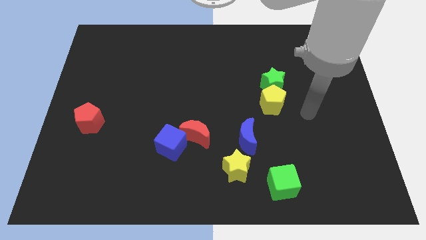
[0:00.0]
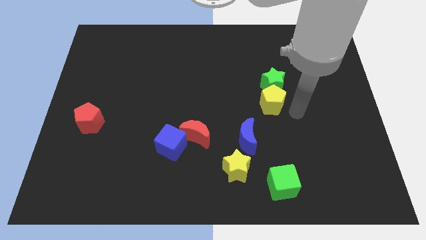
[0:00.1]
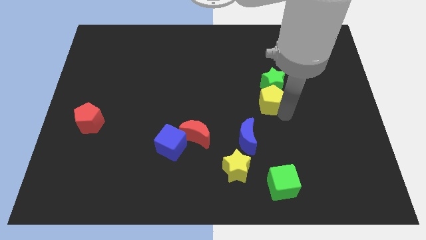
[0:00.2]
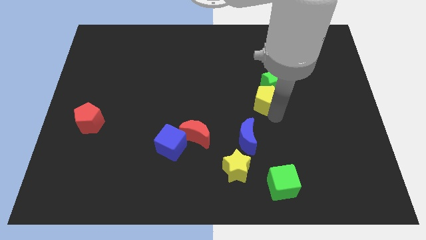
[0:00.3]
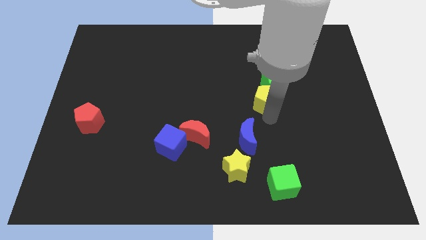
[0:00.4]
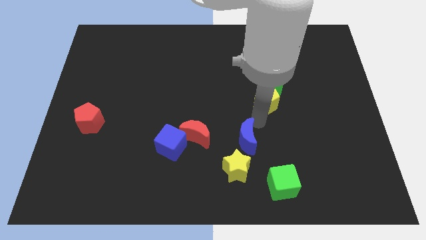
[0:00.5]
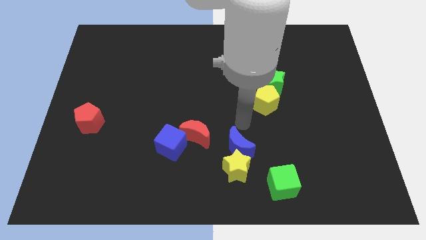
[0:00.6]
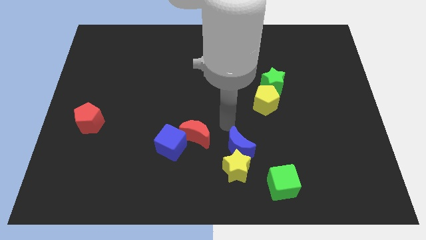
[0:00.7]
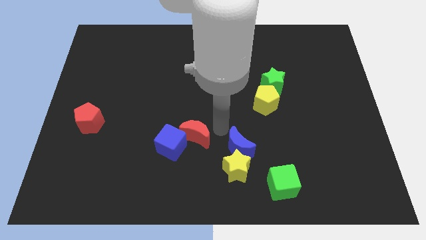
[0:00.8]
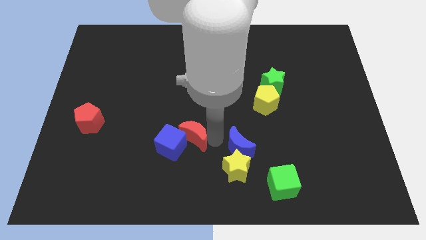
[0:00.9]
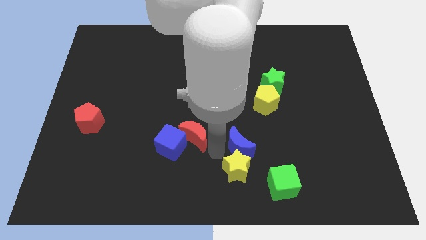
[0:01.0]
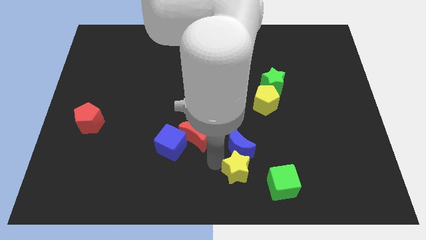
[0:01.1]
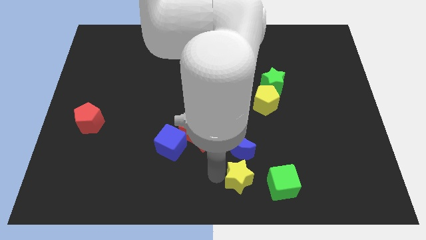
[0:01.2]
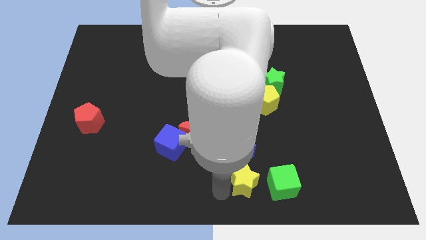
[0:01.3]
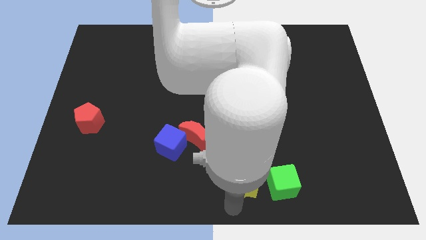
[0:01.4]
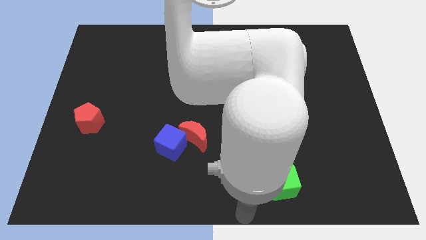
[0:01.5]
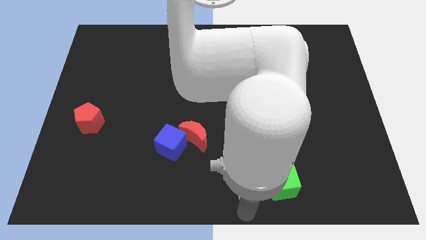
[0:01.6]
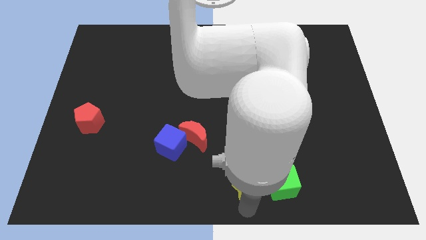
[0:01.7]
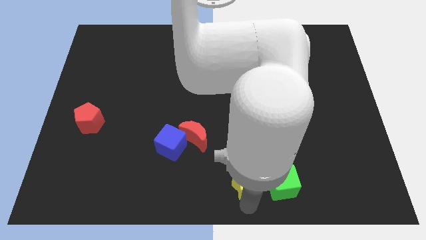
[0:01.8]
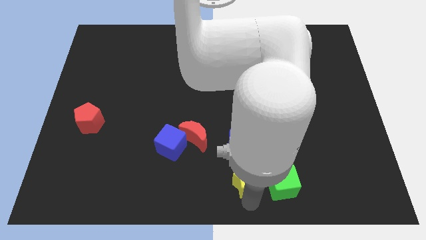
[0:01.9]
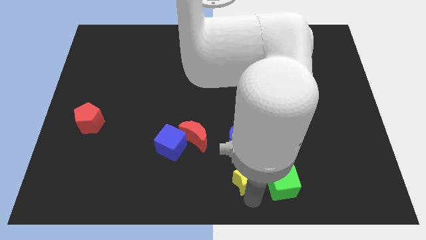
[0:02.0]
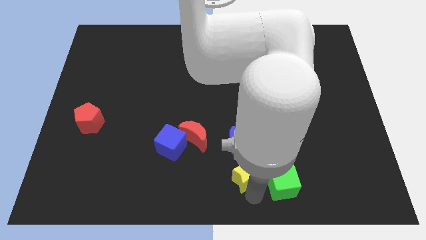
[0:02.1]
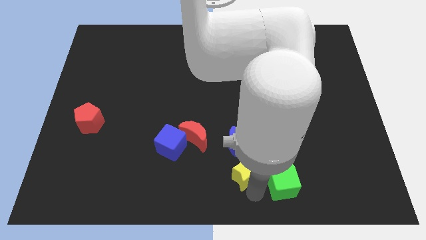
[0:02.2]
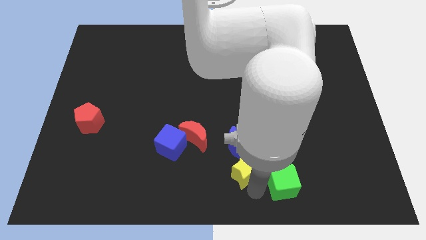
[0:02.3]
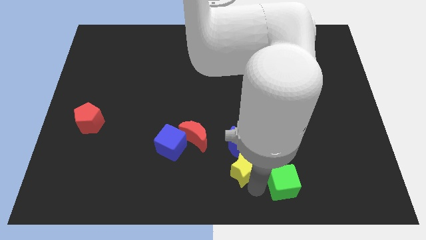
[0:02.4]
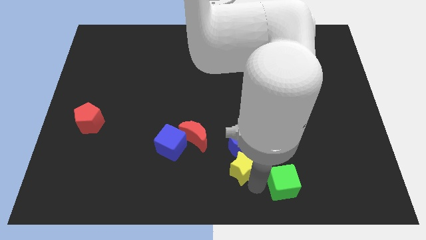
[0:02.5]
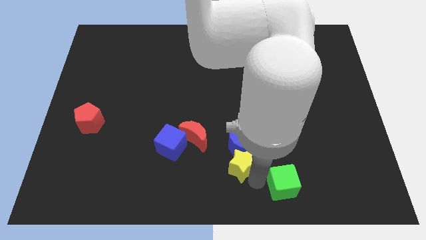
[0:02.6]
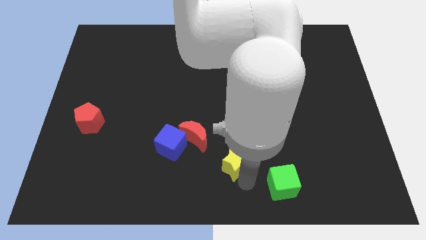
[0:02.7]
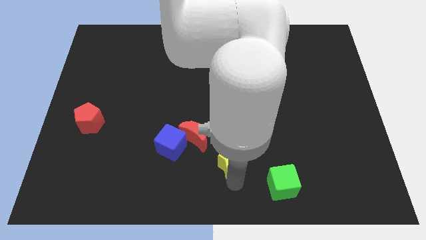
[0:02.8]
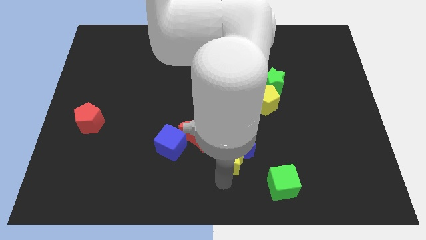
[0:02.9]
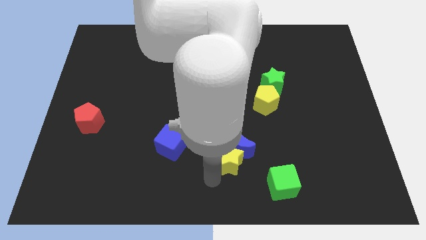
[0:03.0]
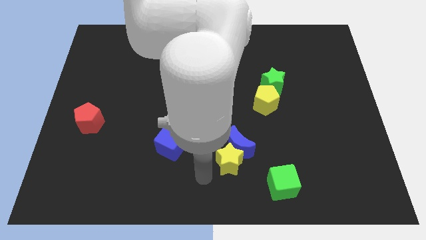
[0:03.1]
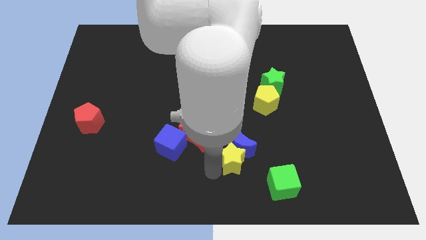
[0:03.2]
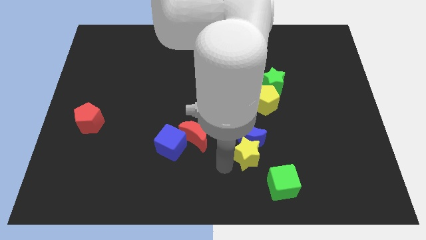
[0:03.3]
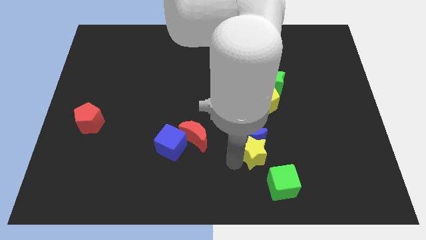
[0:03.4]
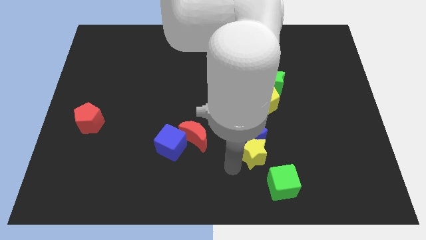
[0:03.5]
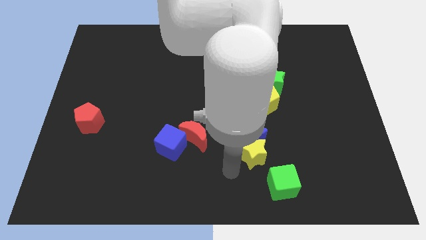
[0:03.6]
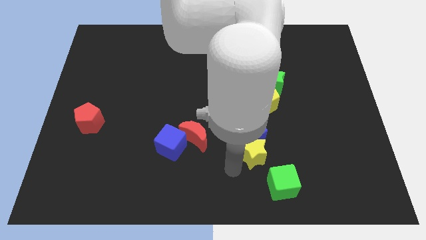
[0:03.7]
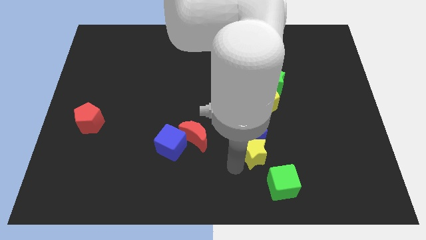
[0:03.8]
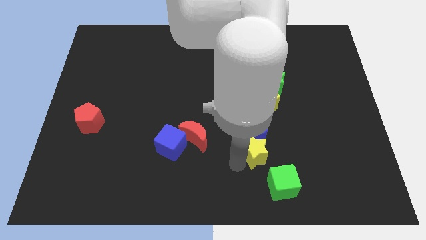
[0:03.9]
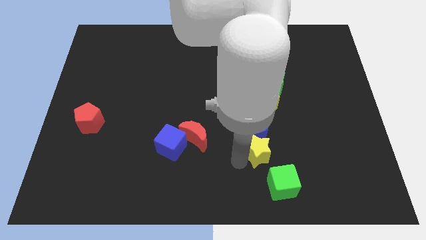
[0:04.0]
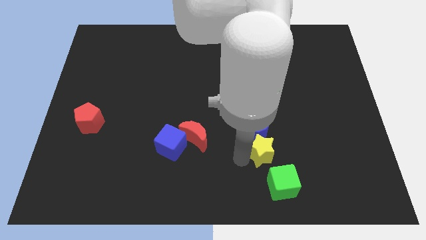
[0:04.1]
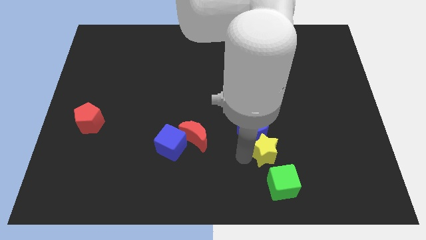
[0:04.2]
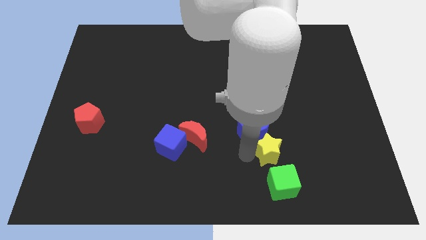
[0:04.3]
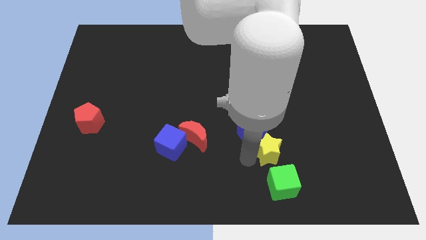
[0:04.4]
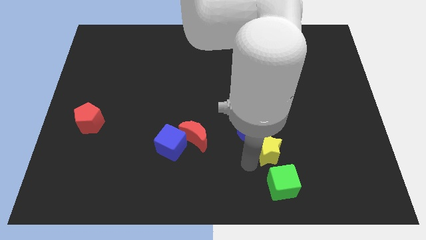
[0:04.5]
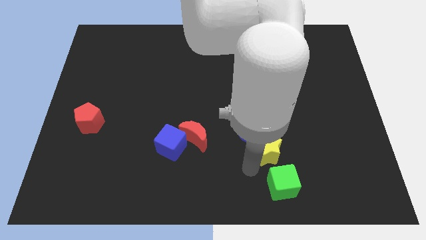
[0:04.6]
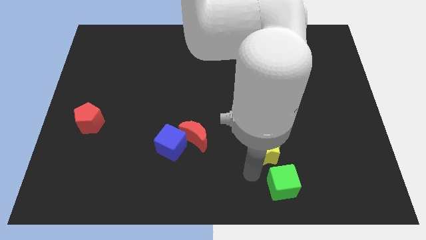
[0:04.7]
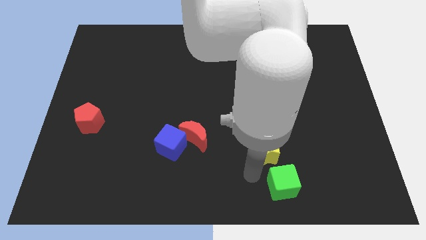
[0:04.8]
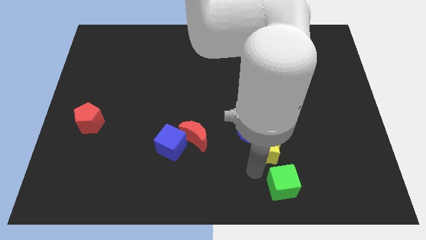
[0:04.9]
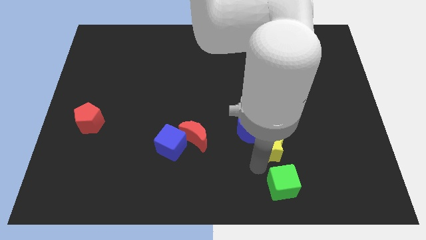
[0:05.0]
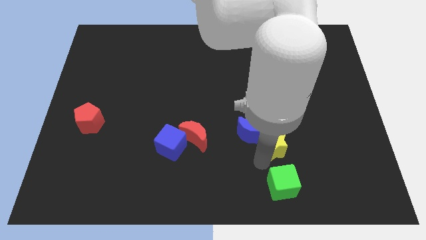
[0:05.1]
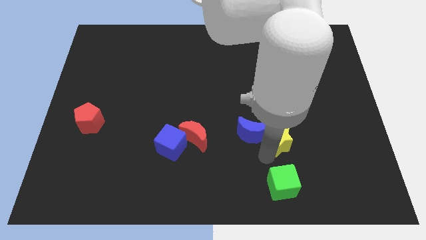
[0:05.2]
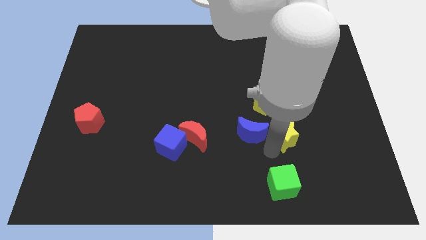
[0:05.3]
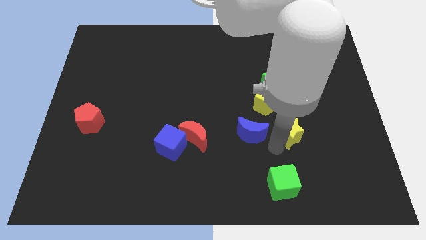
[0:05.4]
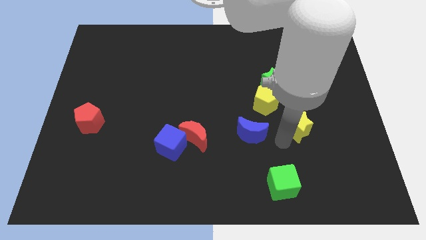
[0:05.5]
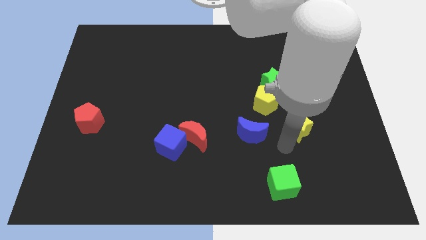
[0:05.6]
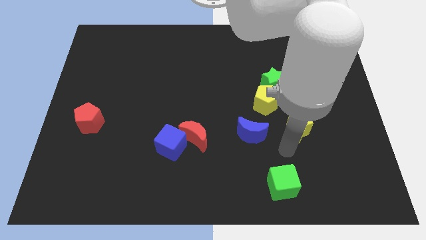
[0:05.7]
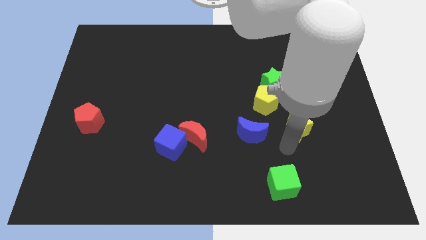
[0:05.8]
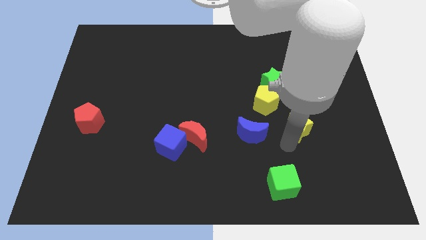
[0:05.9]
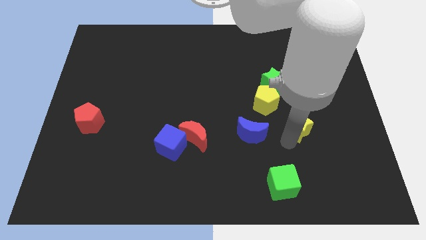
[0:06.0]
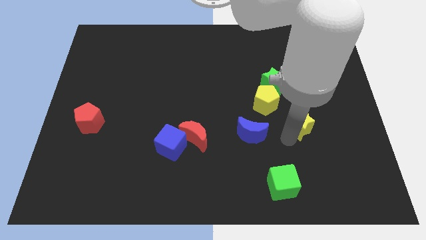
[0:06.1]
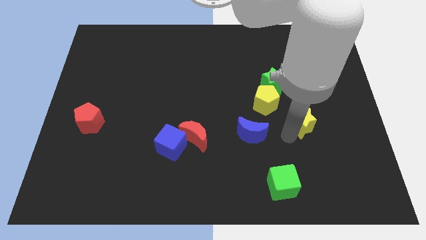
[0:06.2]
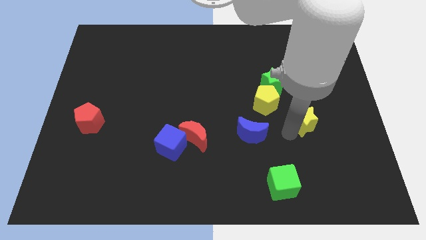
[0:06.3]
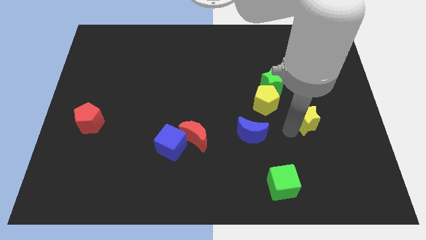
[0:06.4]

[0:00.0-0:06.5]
push the yellow star diagonally upwards and right

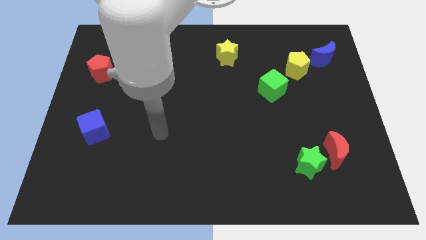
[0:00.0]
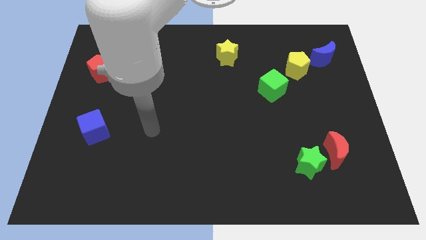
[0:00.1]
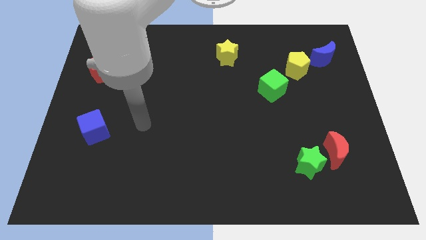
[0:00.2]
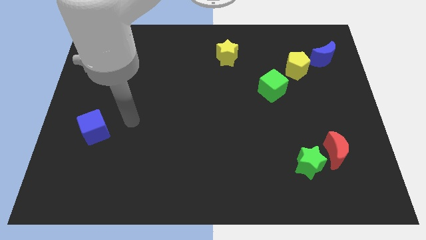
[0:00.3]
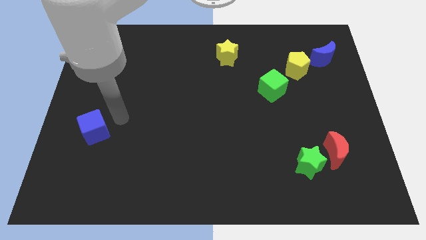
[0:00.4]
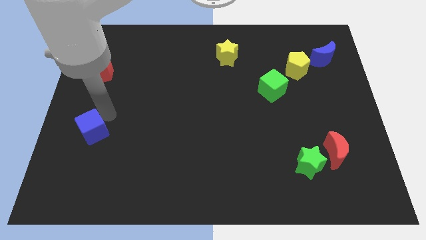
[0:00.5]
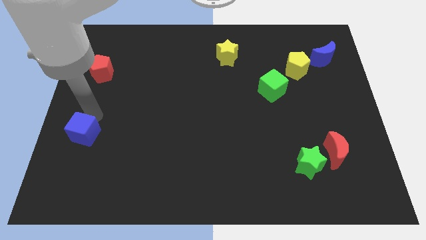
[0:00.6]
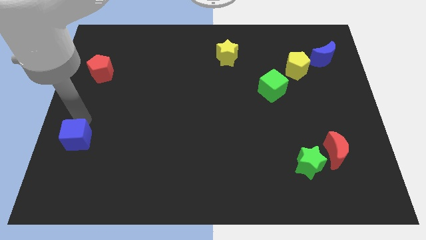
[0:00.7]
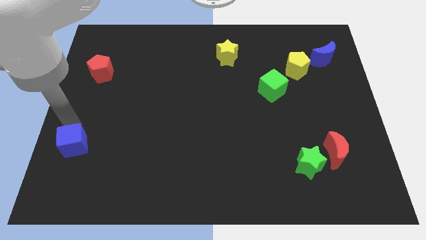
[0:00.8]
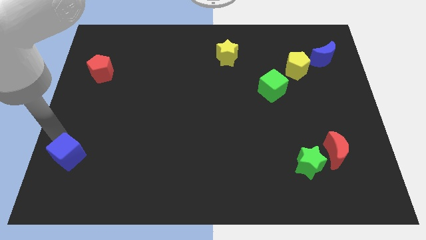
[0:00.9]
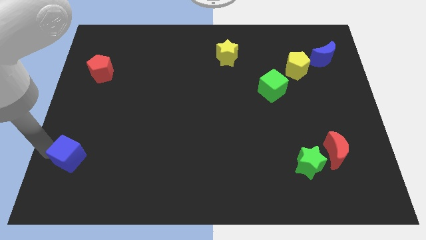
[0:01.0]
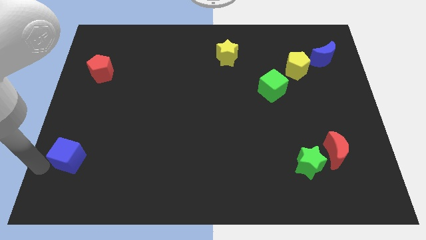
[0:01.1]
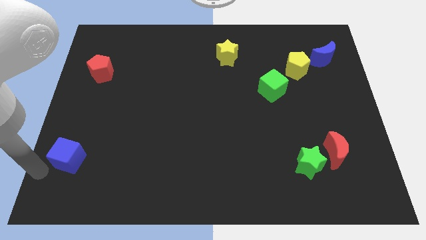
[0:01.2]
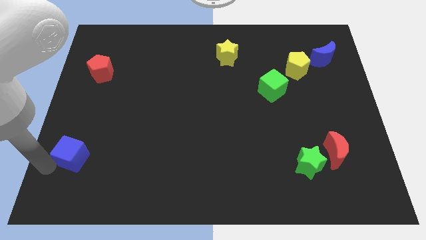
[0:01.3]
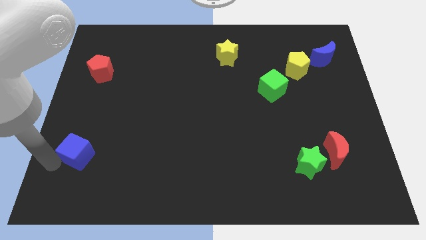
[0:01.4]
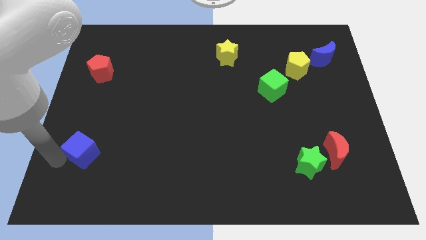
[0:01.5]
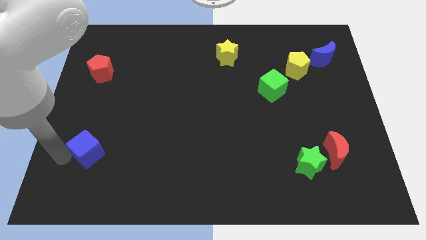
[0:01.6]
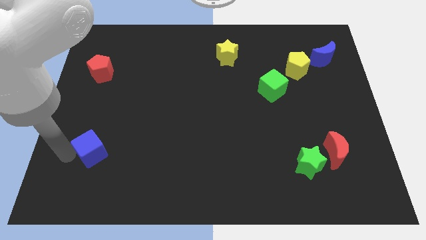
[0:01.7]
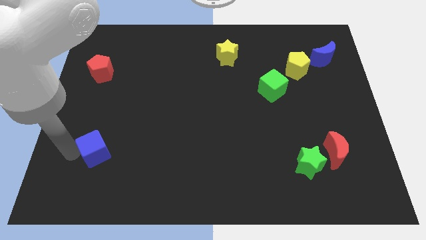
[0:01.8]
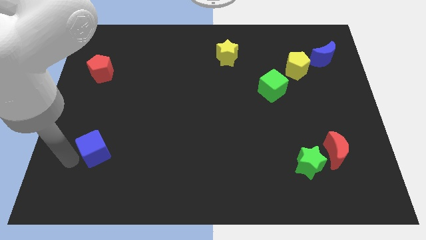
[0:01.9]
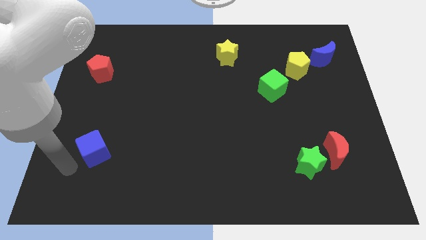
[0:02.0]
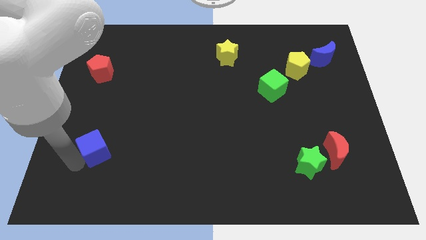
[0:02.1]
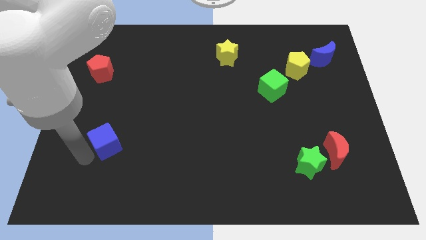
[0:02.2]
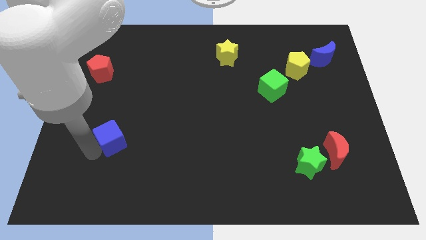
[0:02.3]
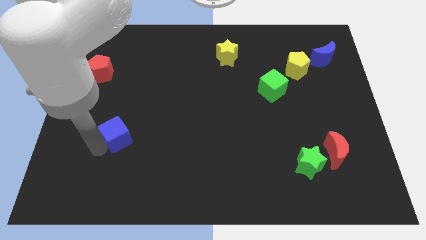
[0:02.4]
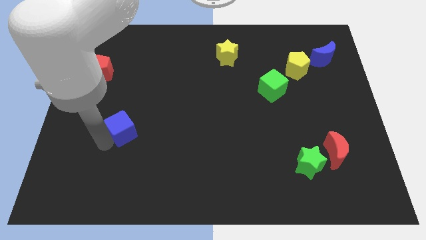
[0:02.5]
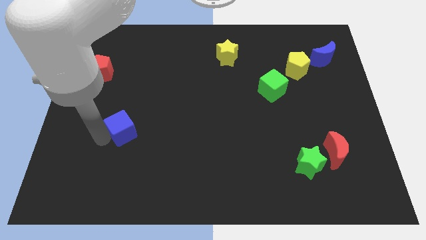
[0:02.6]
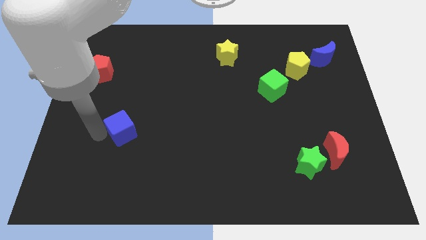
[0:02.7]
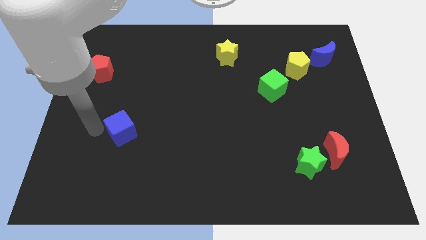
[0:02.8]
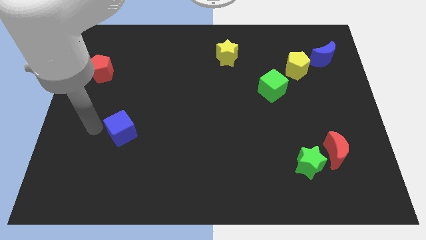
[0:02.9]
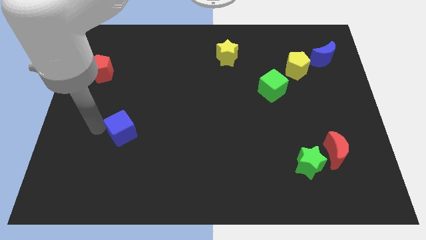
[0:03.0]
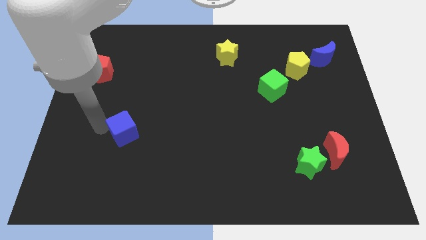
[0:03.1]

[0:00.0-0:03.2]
push the blue cube slightly to the right
